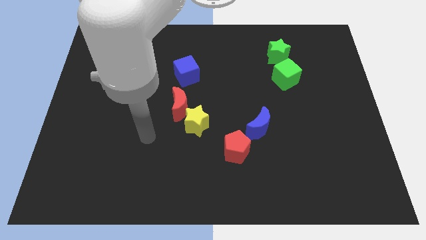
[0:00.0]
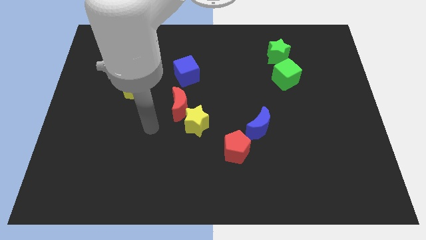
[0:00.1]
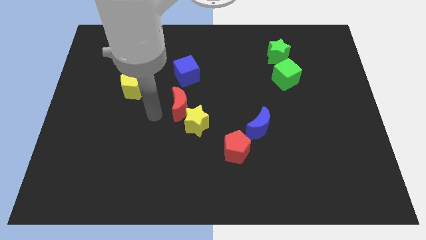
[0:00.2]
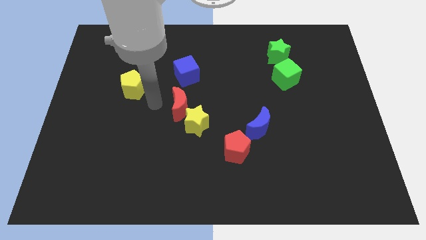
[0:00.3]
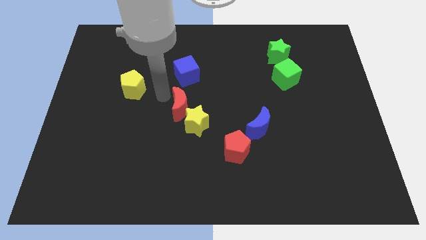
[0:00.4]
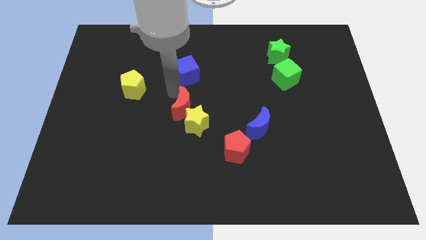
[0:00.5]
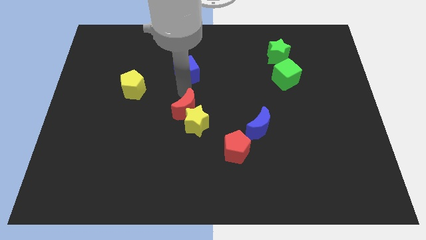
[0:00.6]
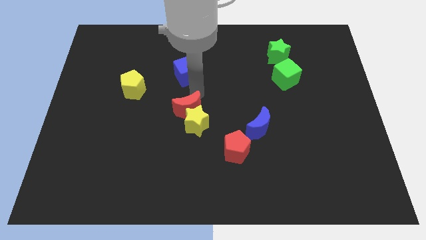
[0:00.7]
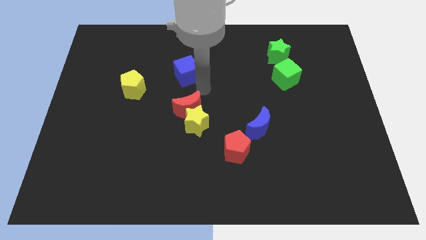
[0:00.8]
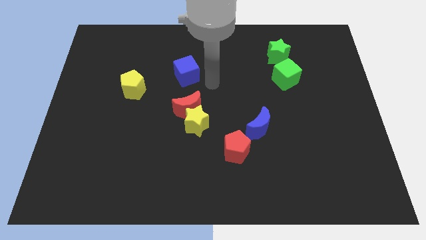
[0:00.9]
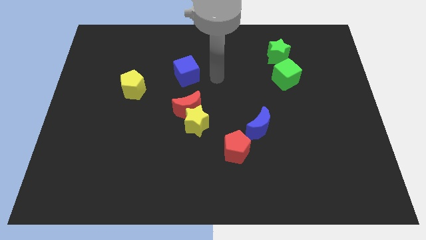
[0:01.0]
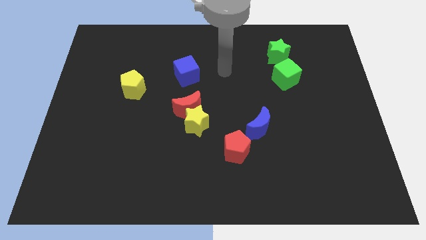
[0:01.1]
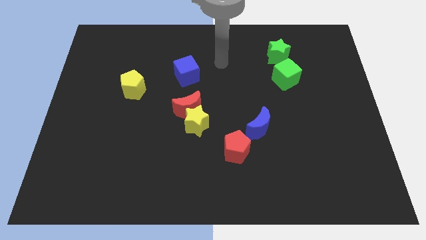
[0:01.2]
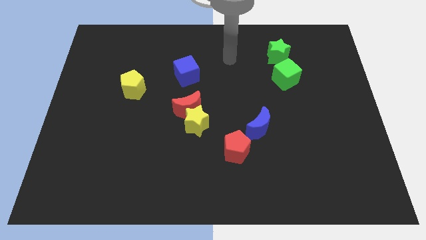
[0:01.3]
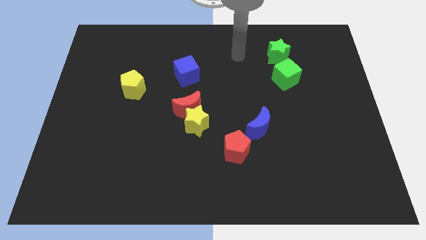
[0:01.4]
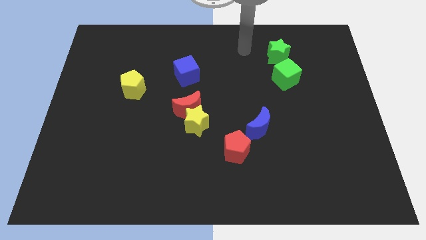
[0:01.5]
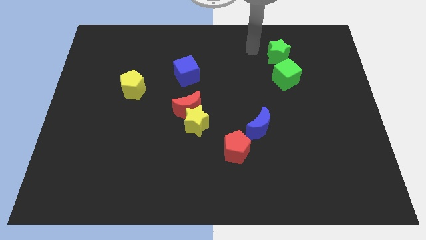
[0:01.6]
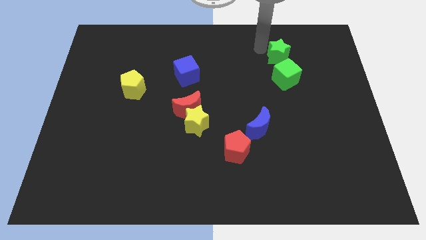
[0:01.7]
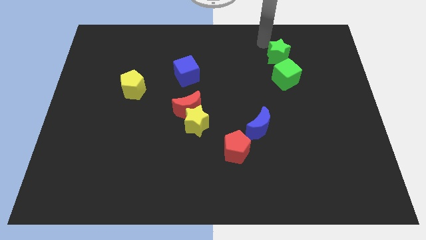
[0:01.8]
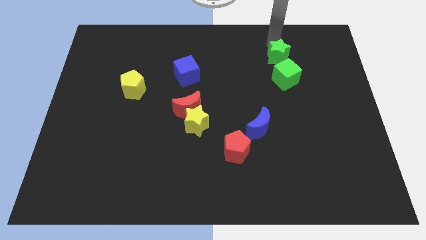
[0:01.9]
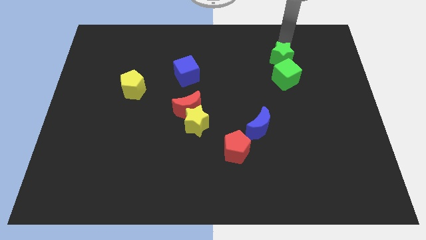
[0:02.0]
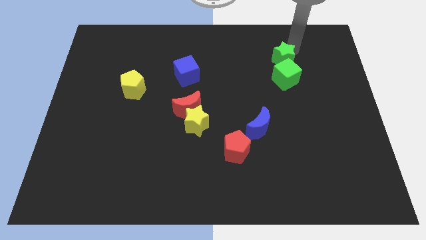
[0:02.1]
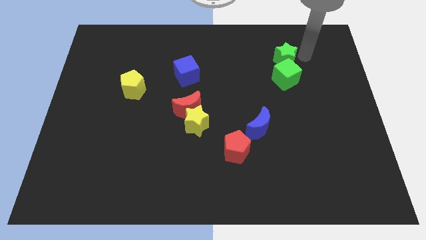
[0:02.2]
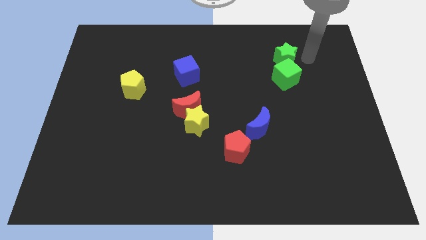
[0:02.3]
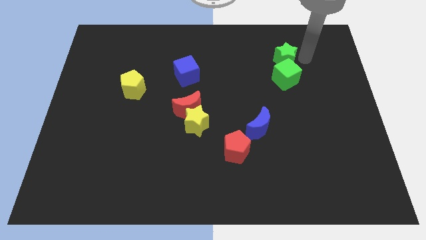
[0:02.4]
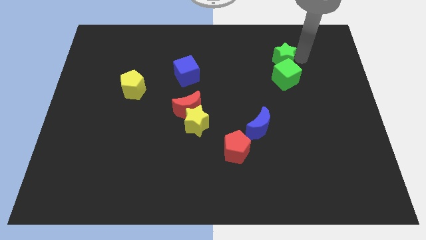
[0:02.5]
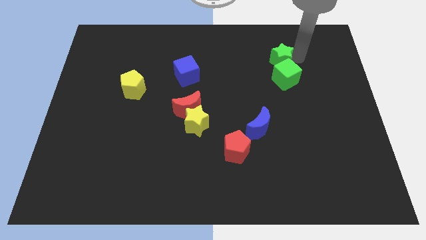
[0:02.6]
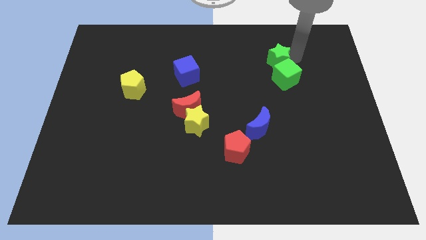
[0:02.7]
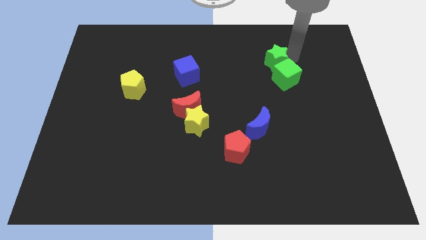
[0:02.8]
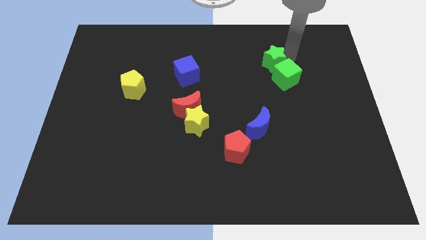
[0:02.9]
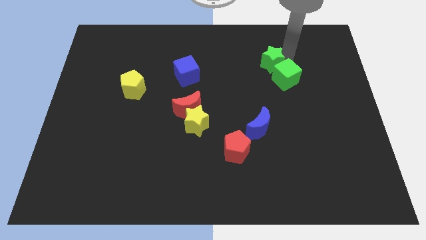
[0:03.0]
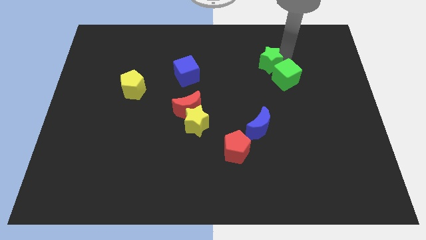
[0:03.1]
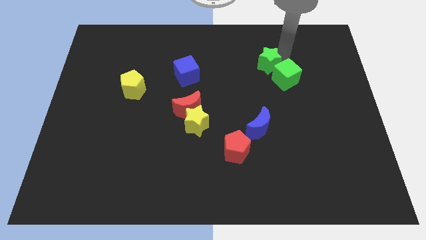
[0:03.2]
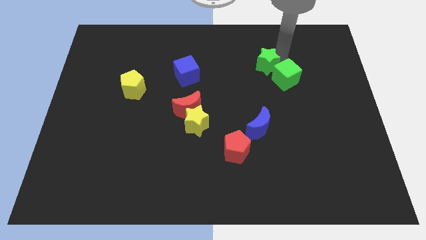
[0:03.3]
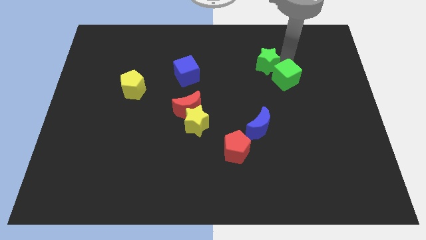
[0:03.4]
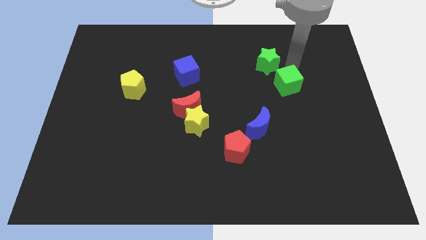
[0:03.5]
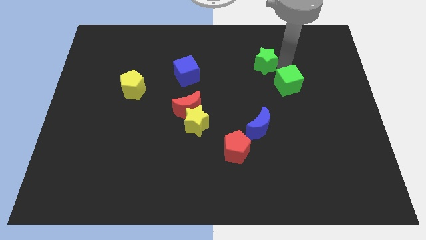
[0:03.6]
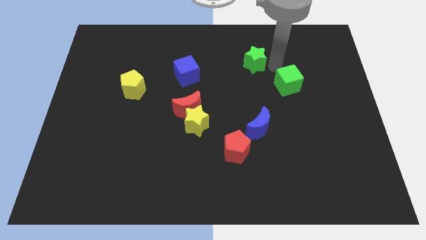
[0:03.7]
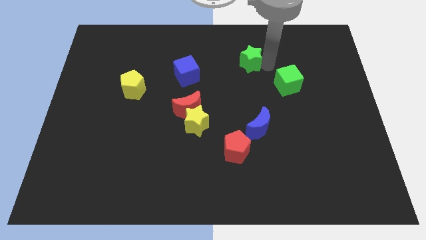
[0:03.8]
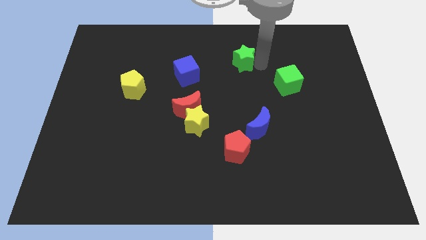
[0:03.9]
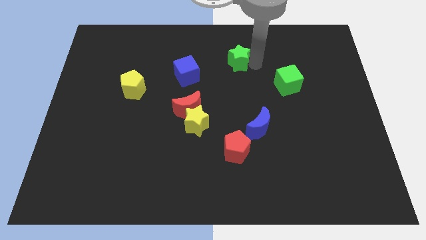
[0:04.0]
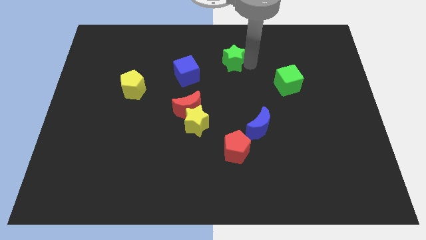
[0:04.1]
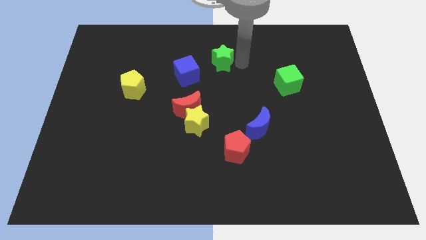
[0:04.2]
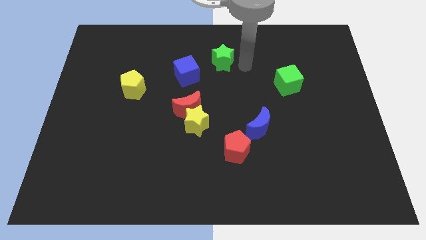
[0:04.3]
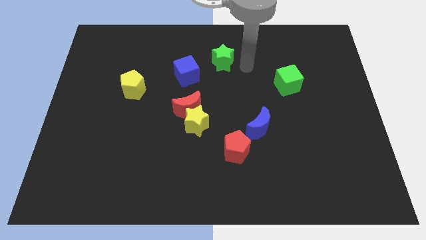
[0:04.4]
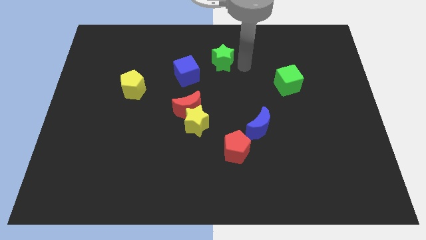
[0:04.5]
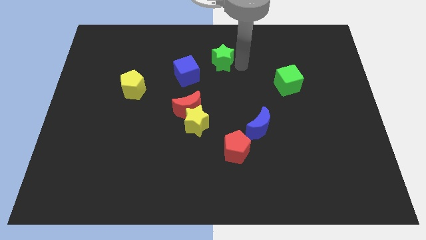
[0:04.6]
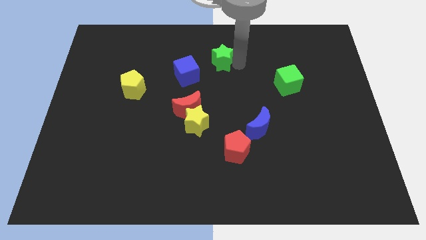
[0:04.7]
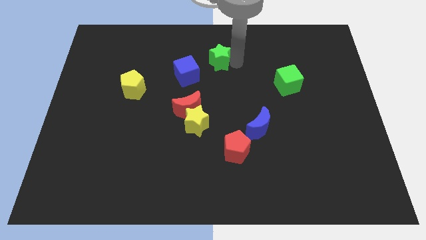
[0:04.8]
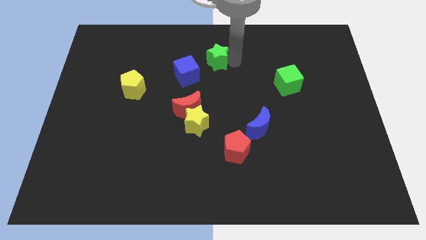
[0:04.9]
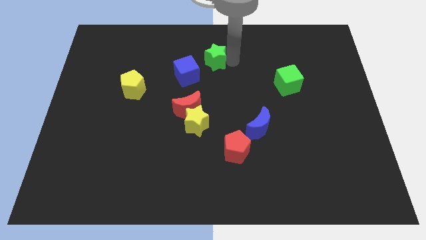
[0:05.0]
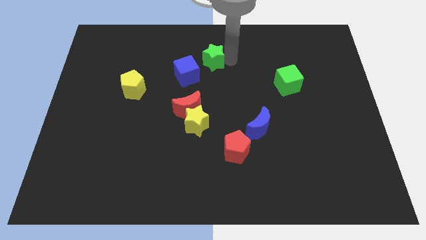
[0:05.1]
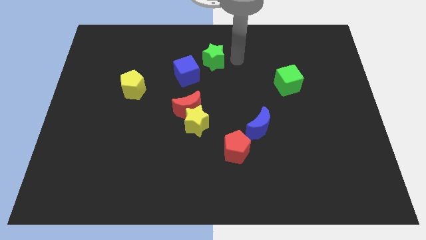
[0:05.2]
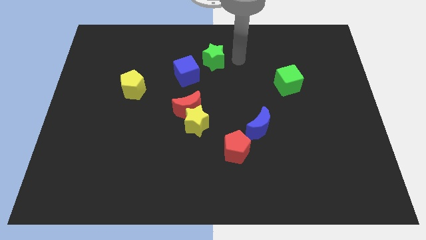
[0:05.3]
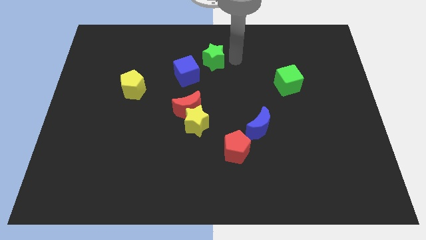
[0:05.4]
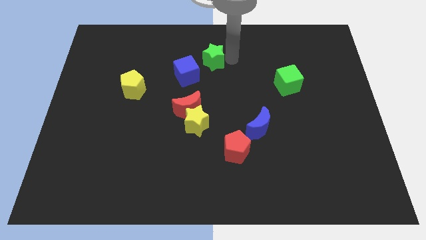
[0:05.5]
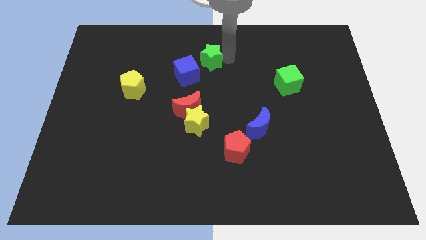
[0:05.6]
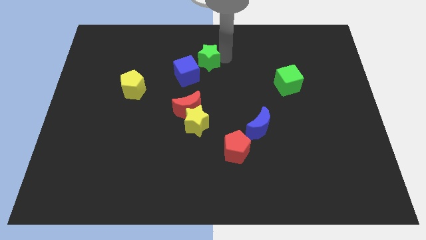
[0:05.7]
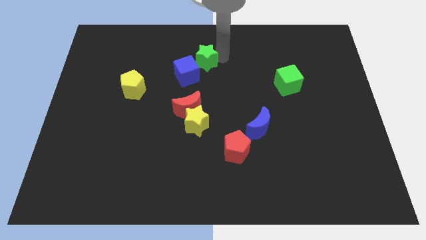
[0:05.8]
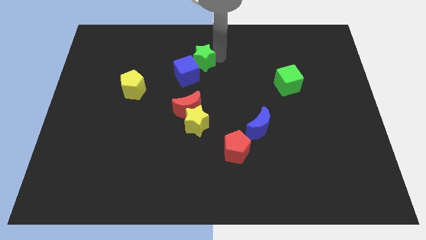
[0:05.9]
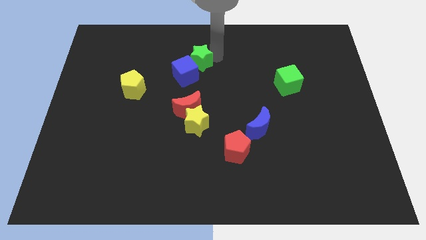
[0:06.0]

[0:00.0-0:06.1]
push the green star to the top of the red moon

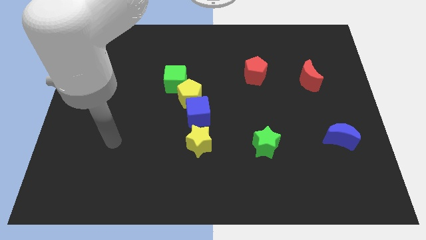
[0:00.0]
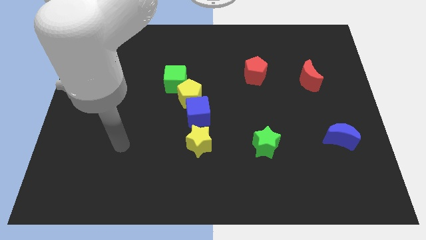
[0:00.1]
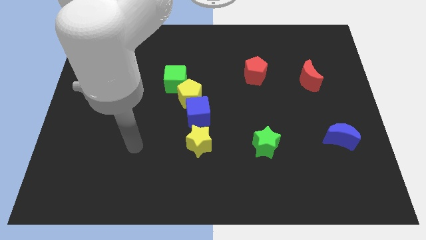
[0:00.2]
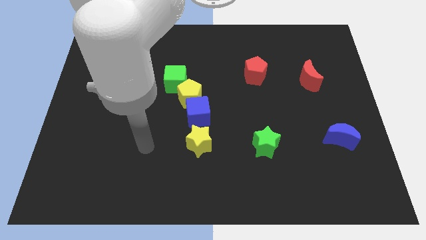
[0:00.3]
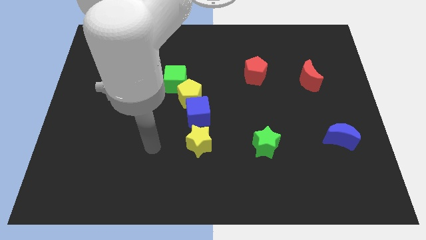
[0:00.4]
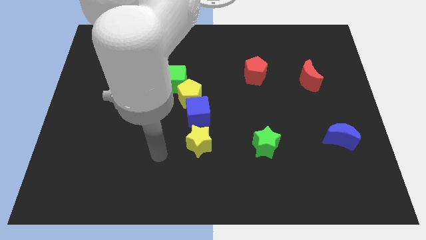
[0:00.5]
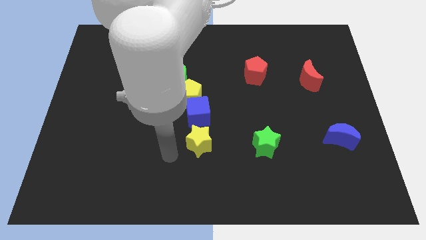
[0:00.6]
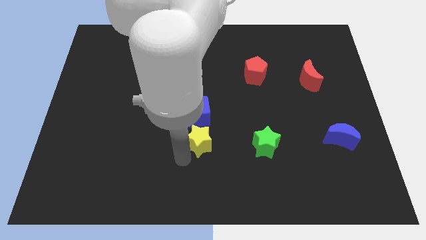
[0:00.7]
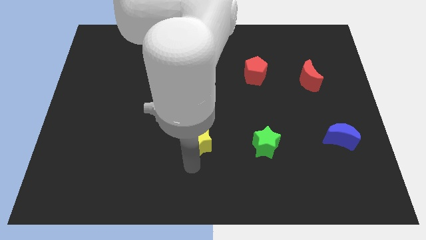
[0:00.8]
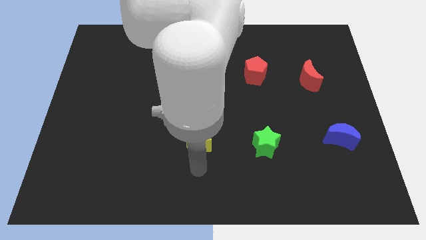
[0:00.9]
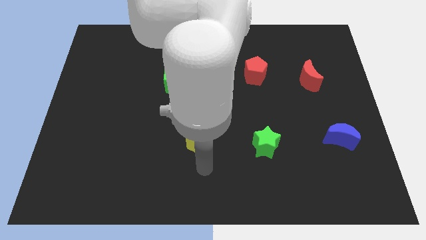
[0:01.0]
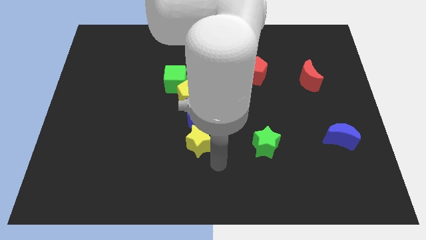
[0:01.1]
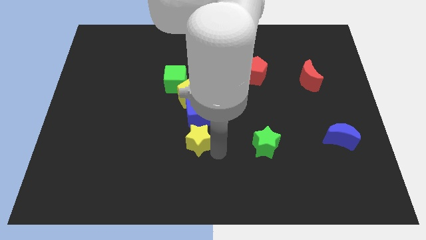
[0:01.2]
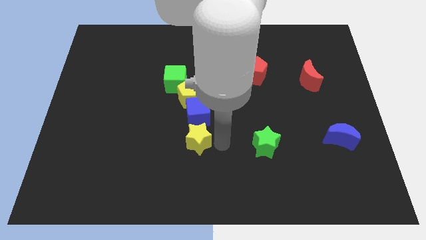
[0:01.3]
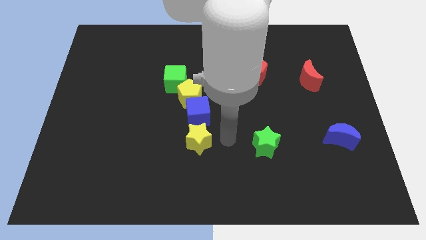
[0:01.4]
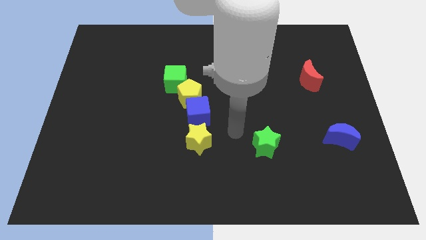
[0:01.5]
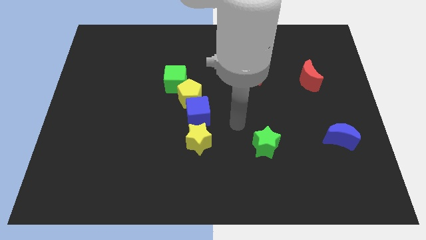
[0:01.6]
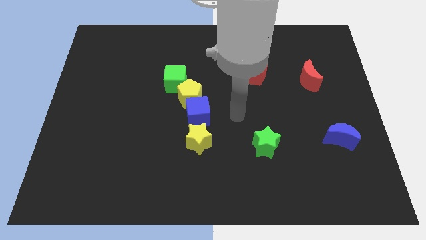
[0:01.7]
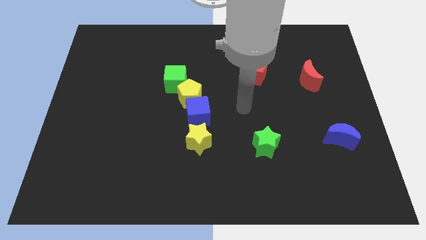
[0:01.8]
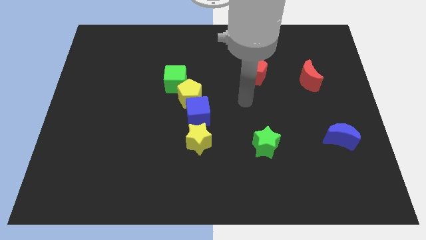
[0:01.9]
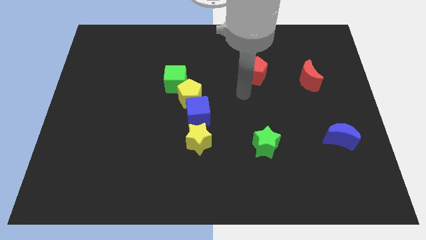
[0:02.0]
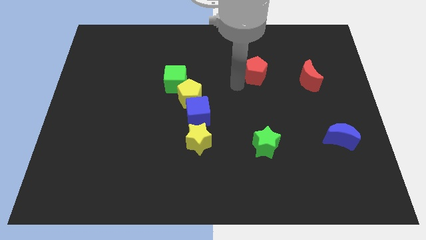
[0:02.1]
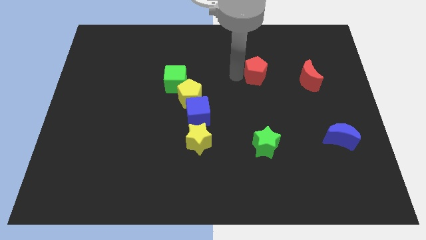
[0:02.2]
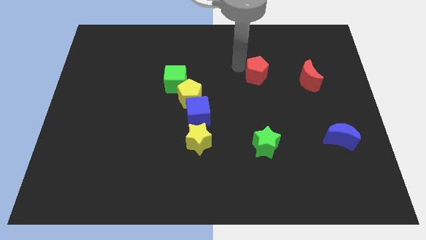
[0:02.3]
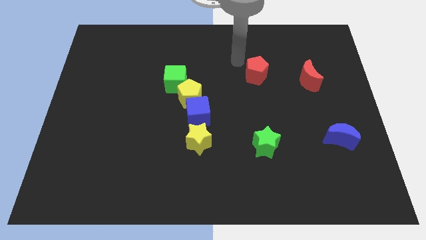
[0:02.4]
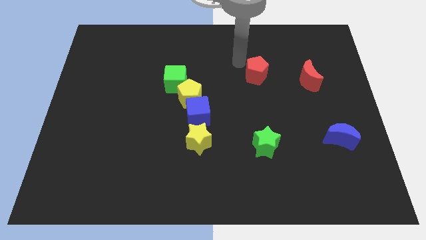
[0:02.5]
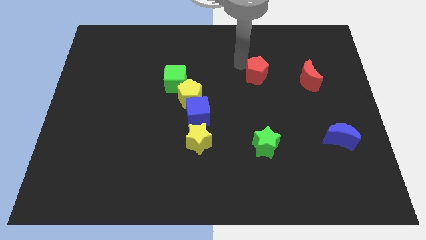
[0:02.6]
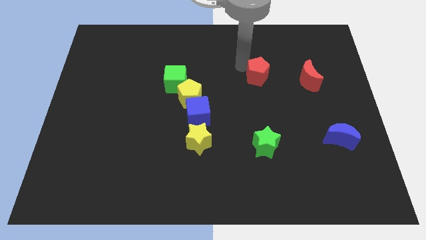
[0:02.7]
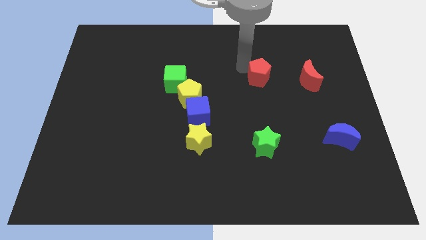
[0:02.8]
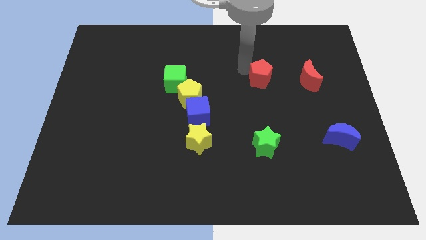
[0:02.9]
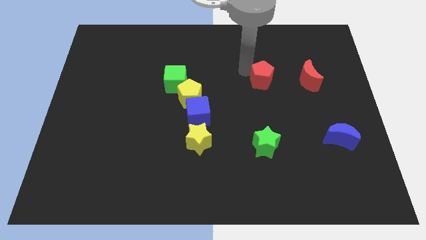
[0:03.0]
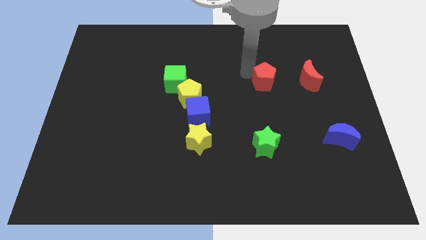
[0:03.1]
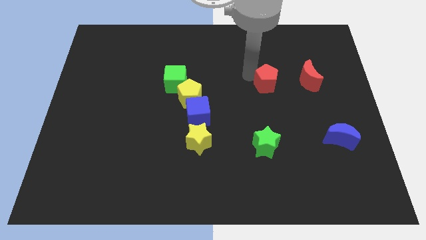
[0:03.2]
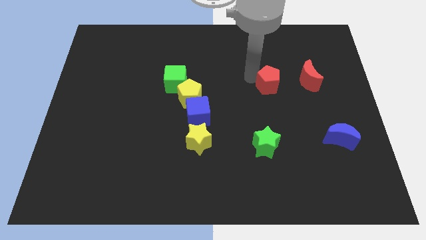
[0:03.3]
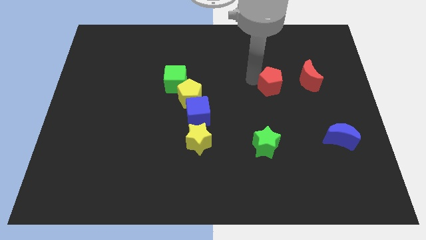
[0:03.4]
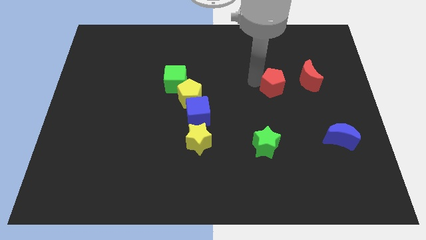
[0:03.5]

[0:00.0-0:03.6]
put the red pentagon to the bottom left of the red moon
